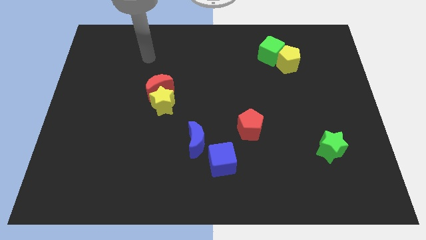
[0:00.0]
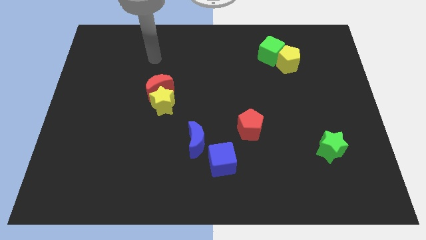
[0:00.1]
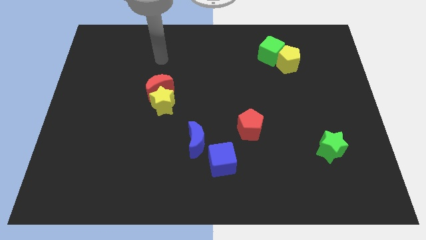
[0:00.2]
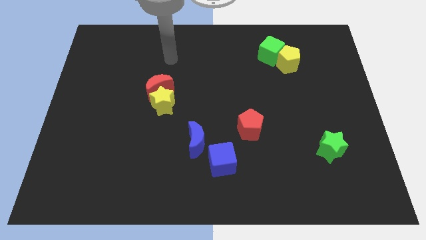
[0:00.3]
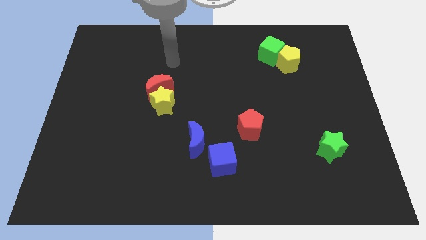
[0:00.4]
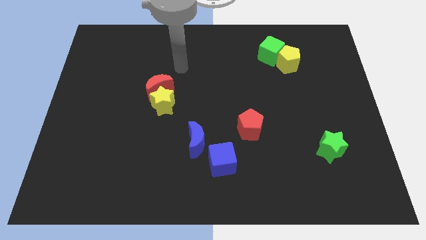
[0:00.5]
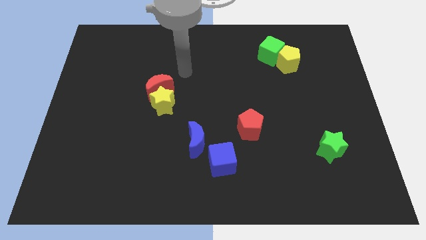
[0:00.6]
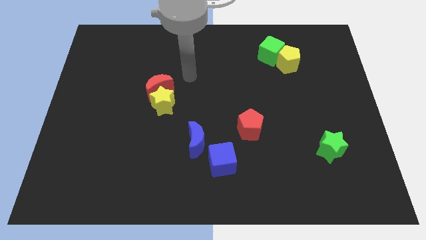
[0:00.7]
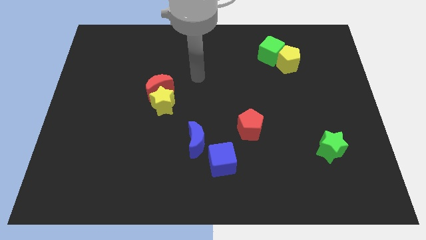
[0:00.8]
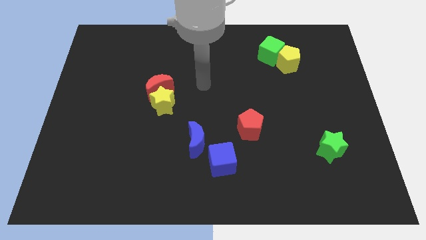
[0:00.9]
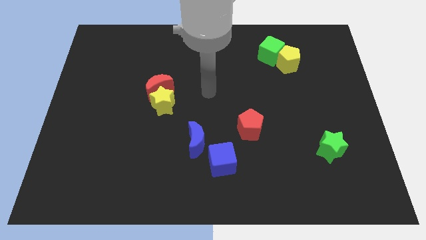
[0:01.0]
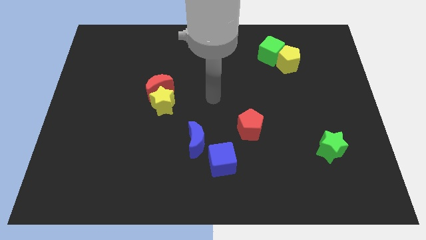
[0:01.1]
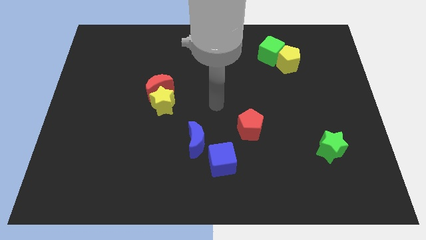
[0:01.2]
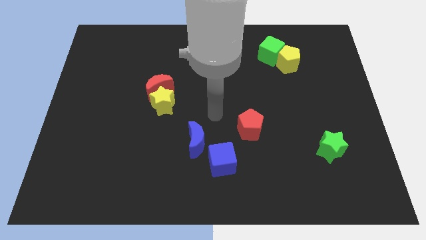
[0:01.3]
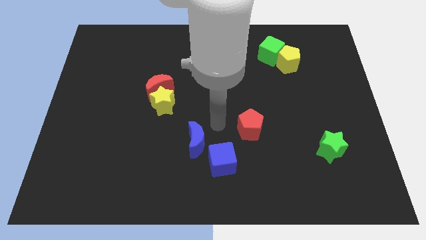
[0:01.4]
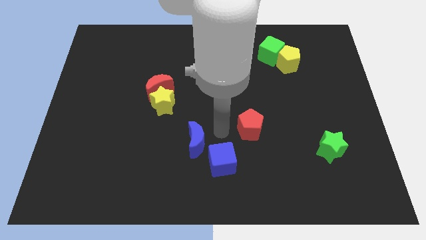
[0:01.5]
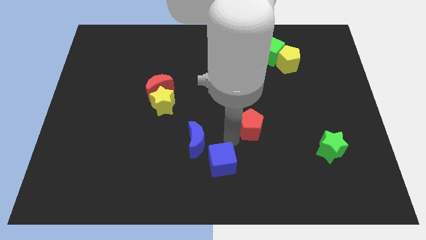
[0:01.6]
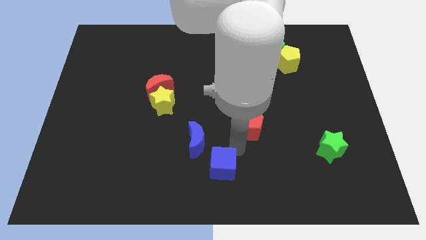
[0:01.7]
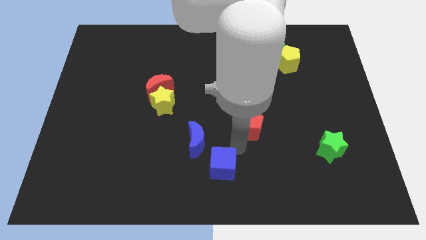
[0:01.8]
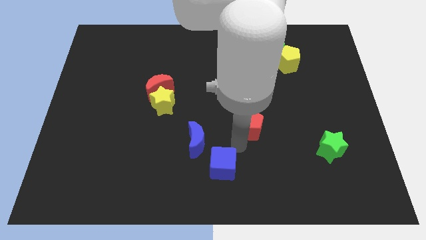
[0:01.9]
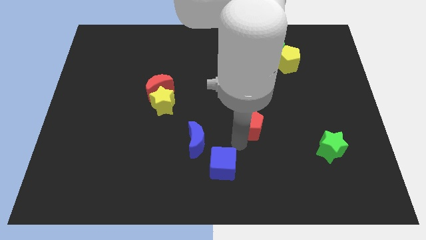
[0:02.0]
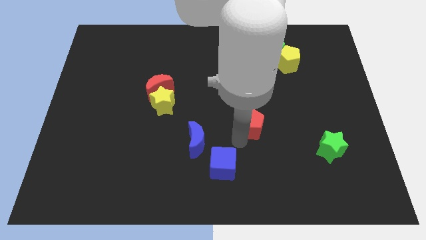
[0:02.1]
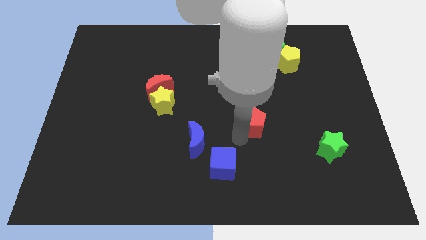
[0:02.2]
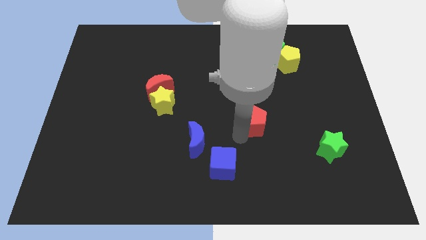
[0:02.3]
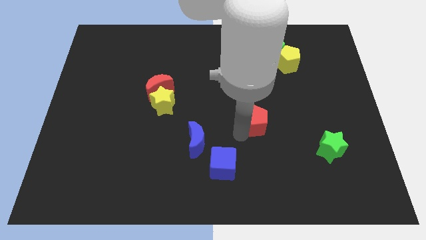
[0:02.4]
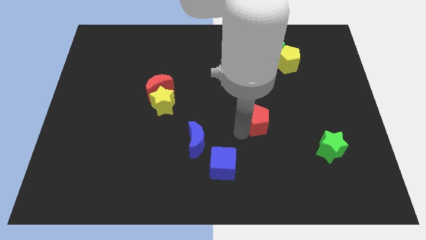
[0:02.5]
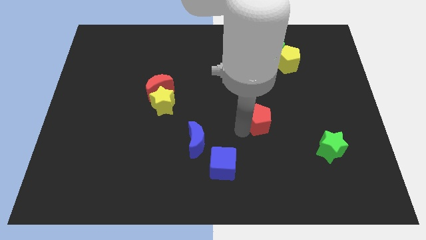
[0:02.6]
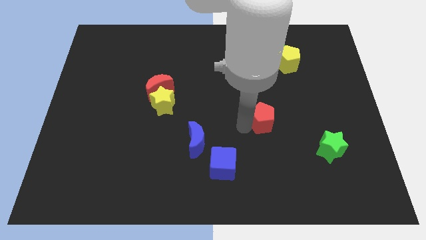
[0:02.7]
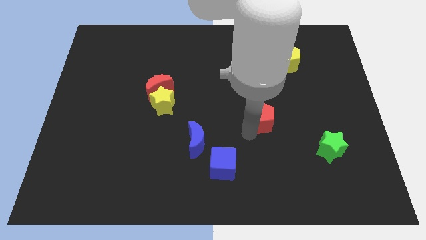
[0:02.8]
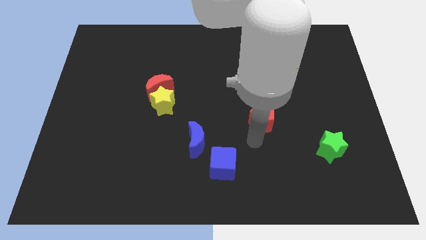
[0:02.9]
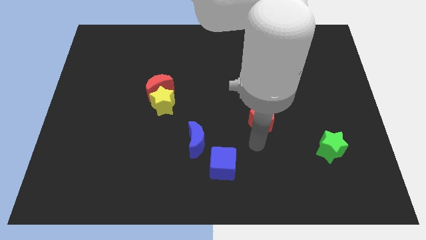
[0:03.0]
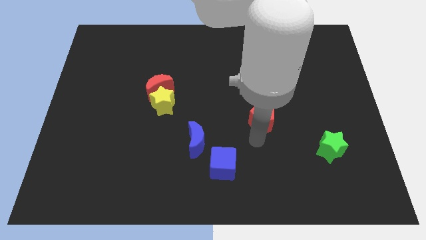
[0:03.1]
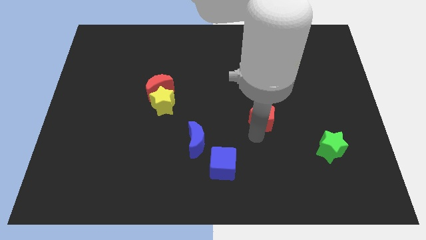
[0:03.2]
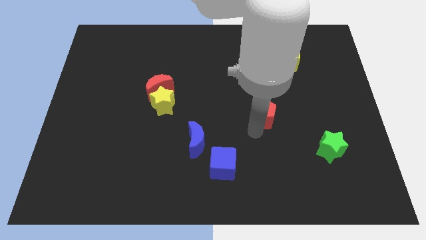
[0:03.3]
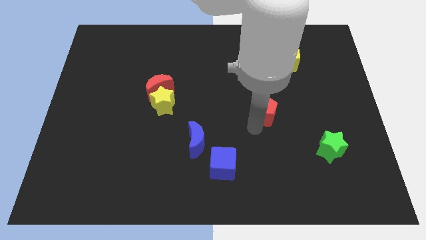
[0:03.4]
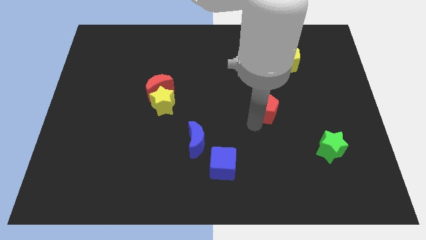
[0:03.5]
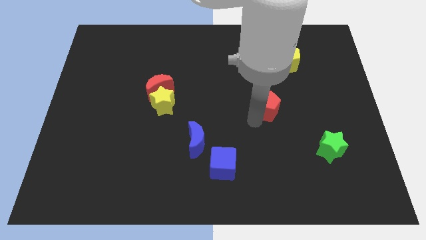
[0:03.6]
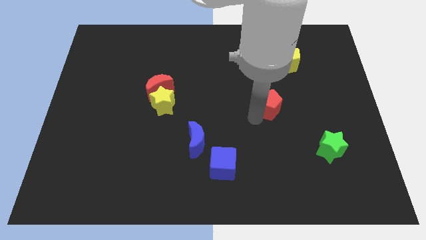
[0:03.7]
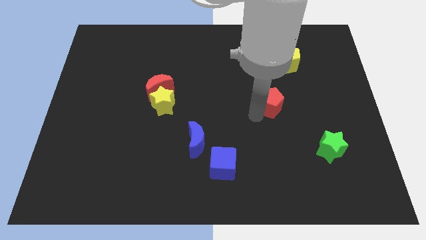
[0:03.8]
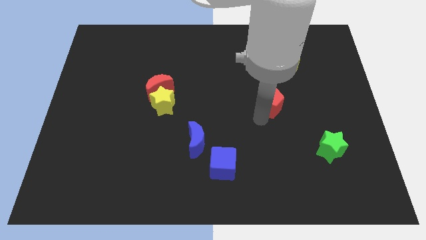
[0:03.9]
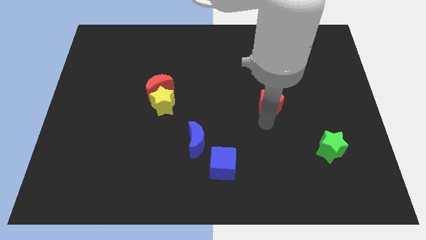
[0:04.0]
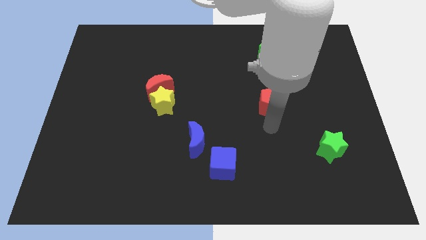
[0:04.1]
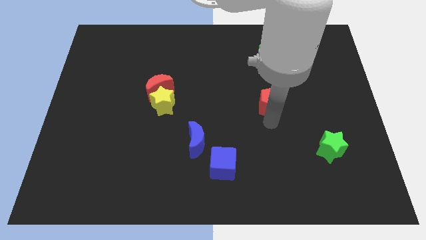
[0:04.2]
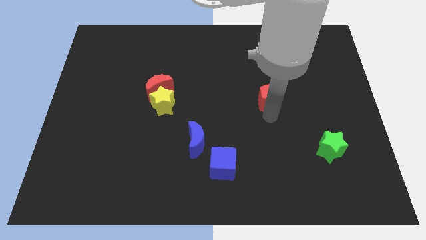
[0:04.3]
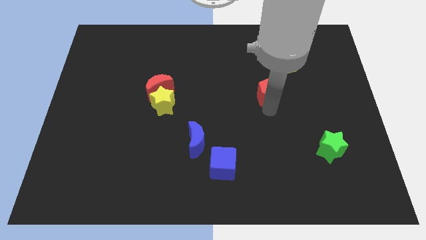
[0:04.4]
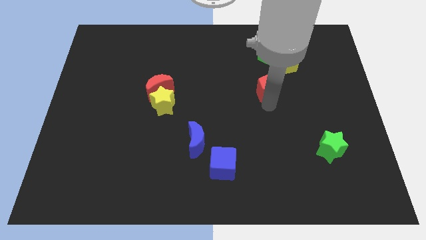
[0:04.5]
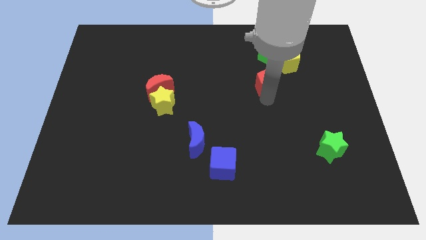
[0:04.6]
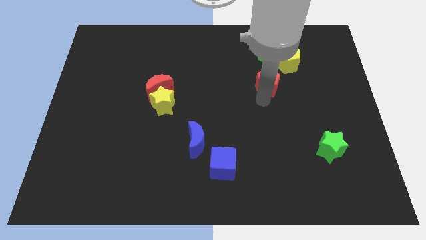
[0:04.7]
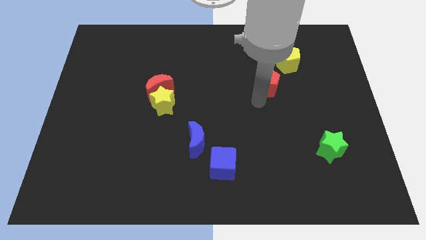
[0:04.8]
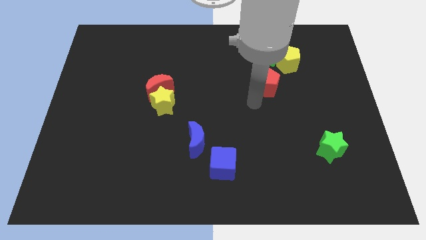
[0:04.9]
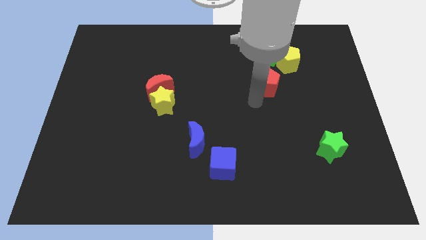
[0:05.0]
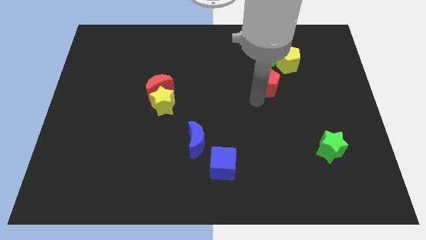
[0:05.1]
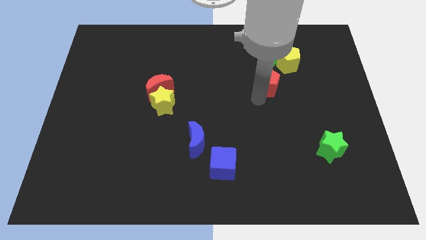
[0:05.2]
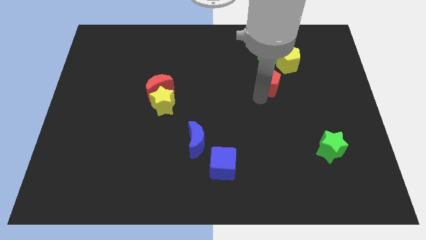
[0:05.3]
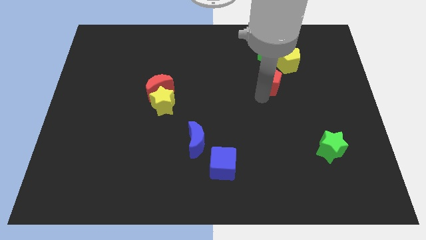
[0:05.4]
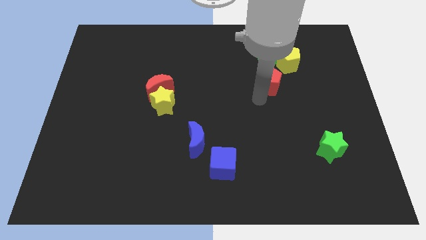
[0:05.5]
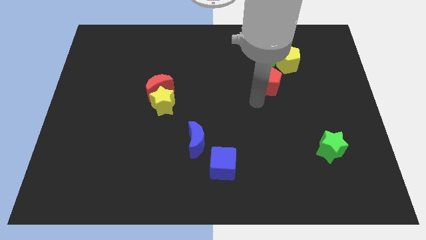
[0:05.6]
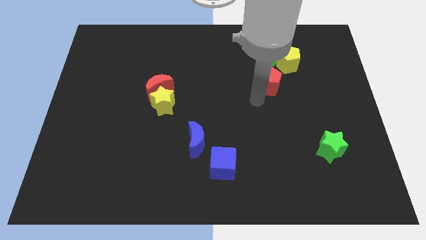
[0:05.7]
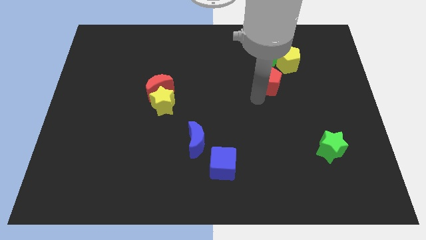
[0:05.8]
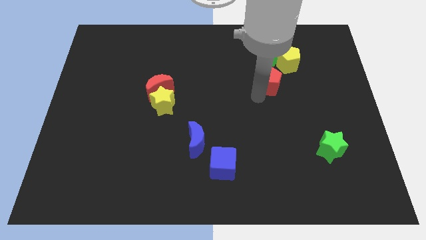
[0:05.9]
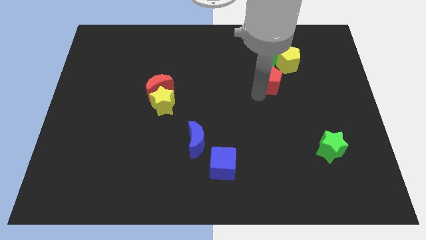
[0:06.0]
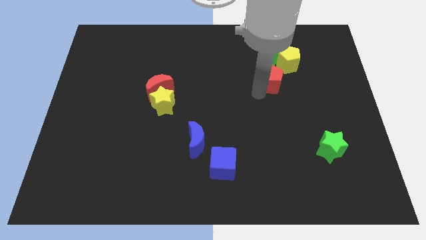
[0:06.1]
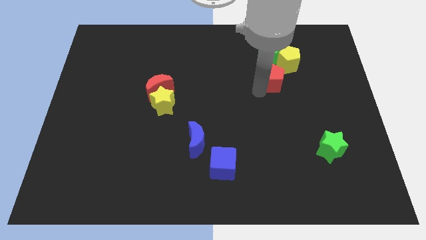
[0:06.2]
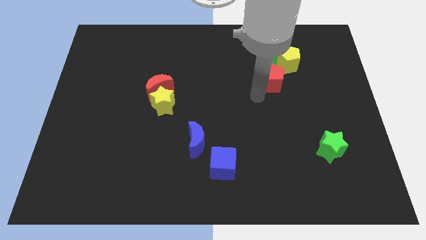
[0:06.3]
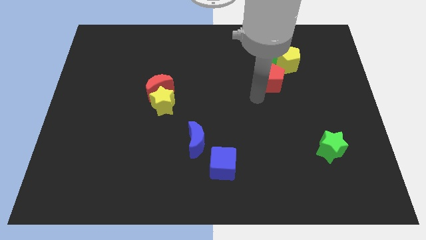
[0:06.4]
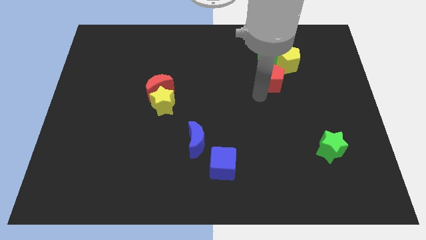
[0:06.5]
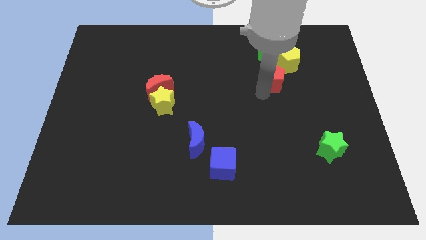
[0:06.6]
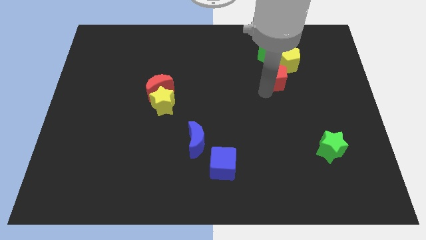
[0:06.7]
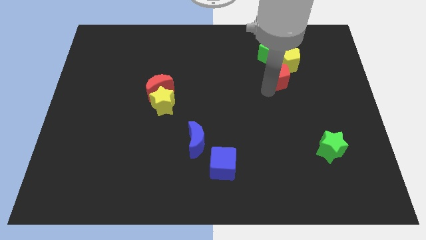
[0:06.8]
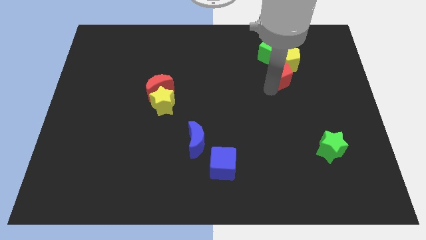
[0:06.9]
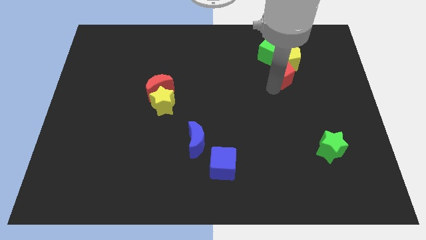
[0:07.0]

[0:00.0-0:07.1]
put the red pentagon next to the yellow pentagon

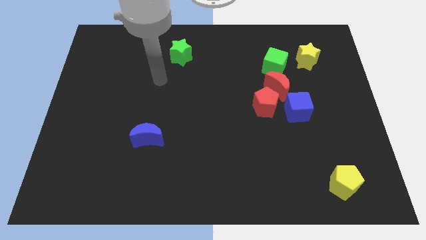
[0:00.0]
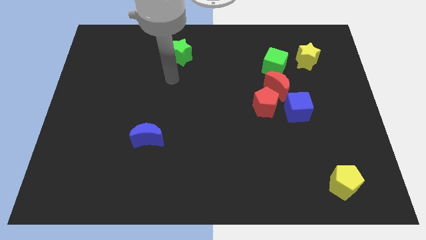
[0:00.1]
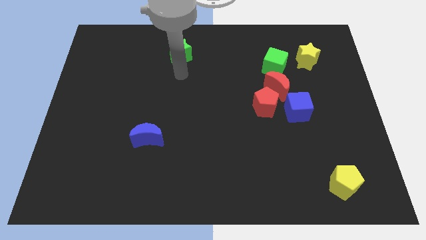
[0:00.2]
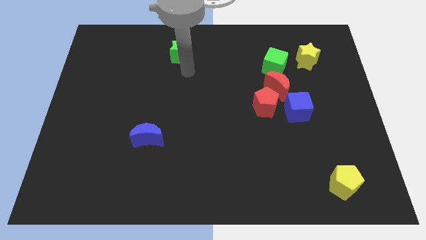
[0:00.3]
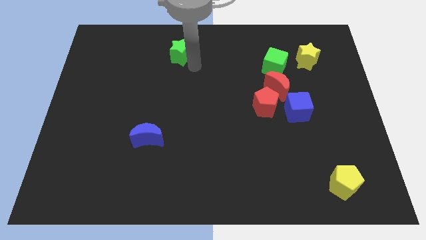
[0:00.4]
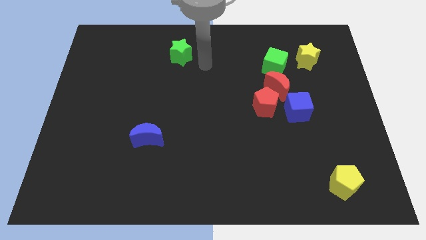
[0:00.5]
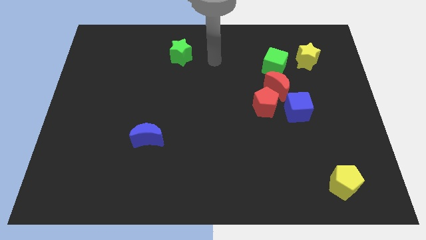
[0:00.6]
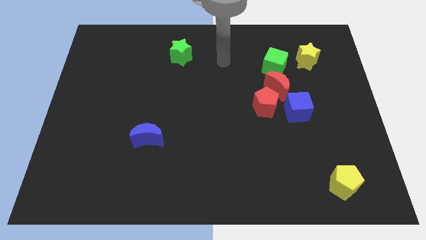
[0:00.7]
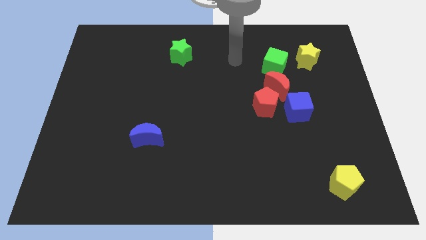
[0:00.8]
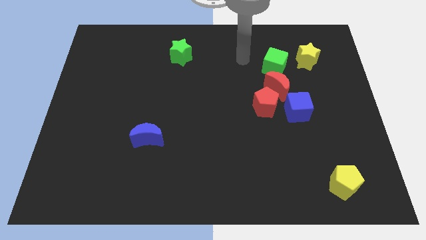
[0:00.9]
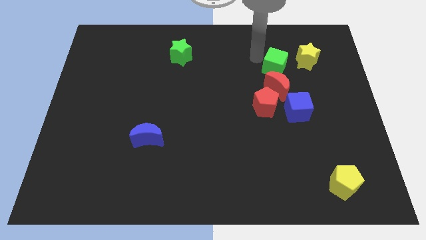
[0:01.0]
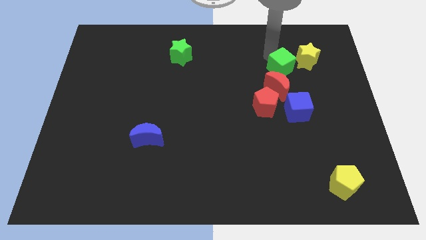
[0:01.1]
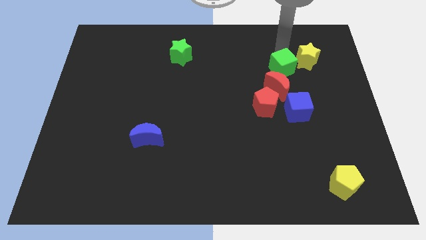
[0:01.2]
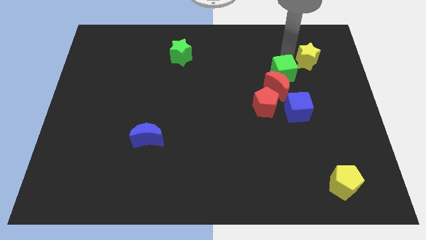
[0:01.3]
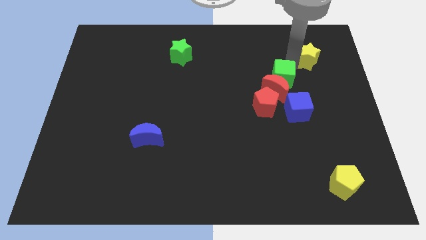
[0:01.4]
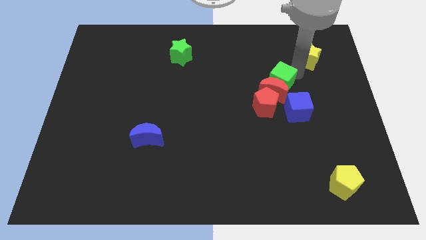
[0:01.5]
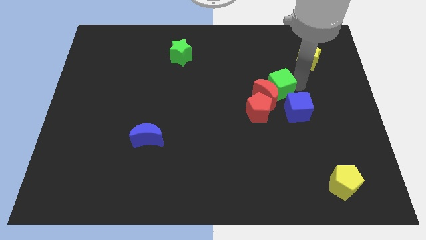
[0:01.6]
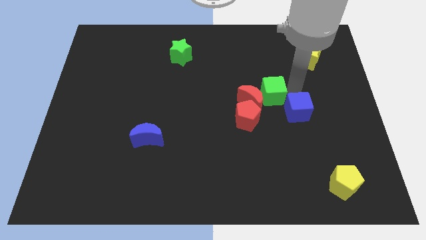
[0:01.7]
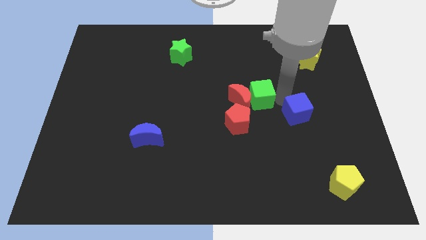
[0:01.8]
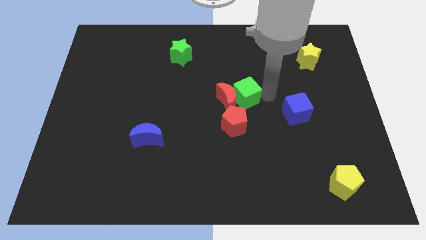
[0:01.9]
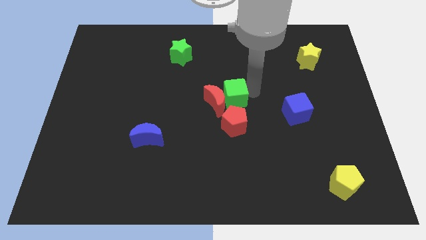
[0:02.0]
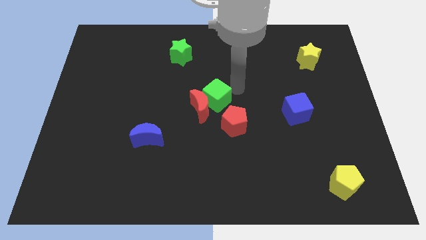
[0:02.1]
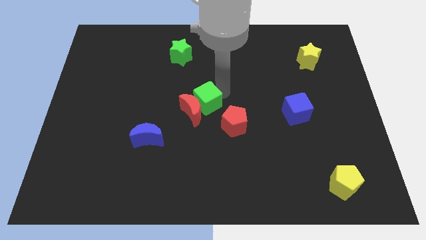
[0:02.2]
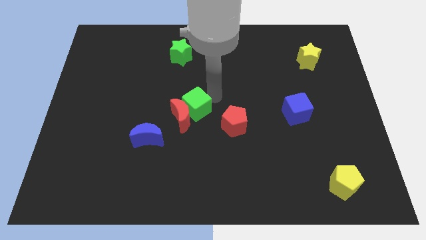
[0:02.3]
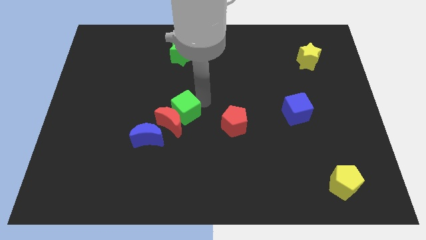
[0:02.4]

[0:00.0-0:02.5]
push the red moon to the blue moon
